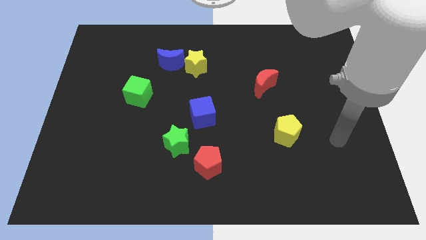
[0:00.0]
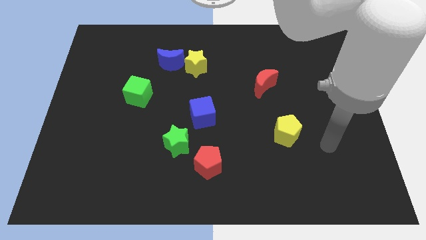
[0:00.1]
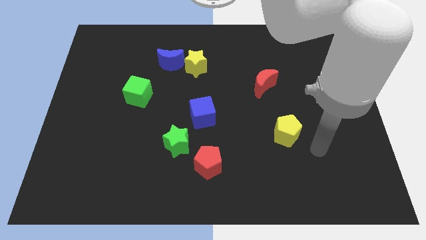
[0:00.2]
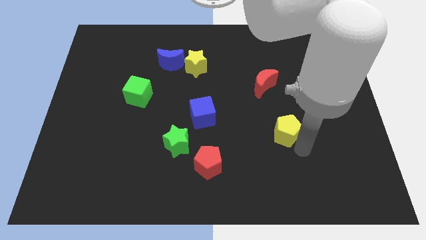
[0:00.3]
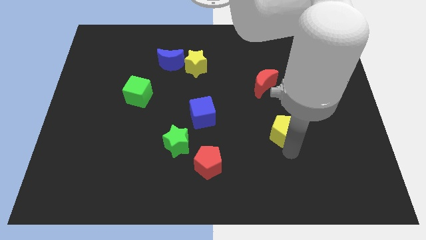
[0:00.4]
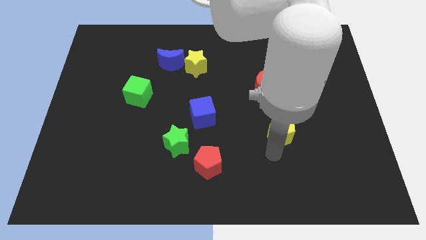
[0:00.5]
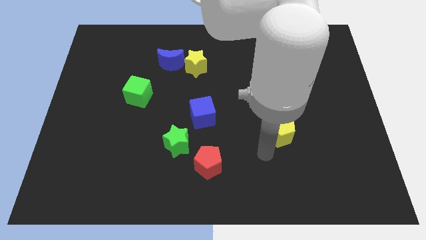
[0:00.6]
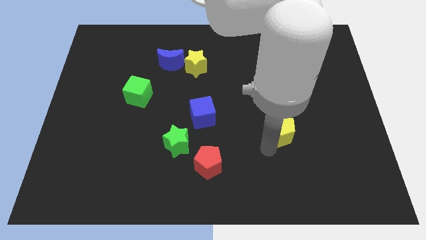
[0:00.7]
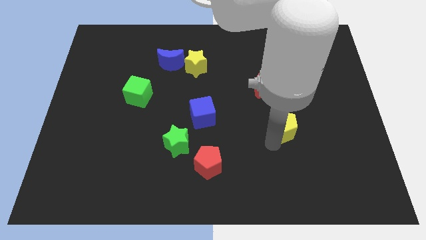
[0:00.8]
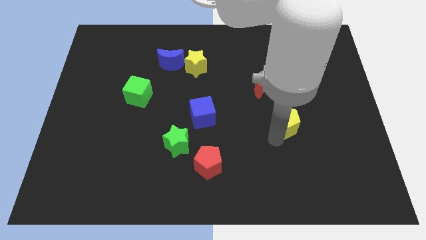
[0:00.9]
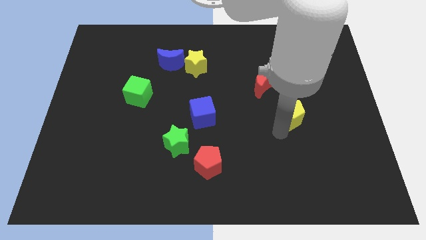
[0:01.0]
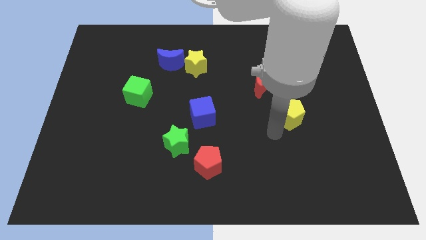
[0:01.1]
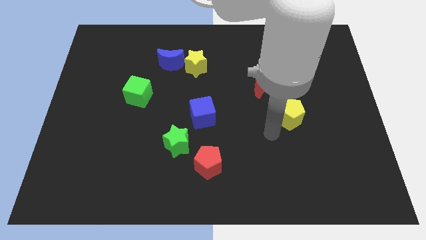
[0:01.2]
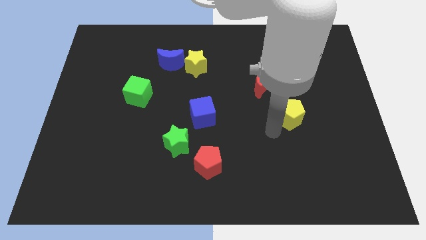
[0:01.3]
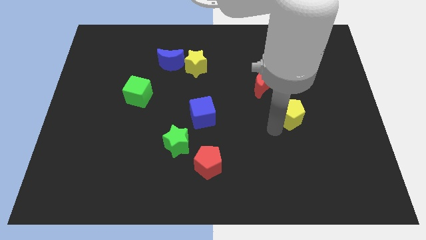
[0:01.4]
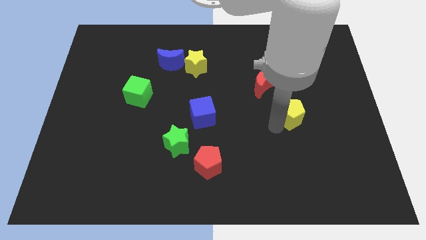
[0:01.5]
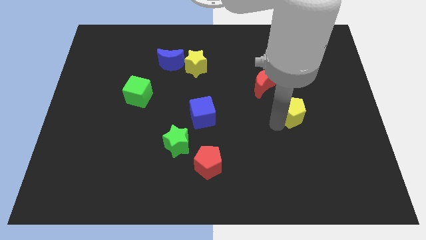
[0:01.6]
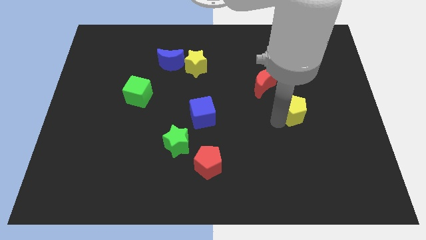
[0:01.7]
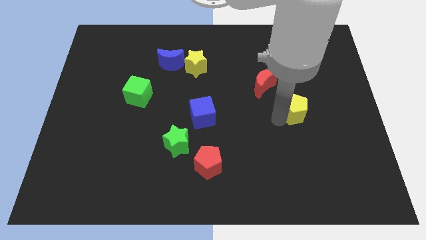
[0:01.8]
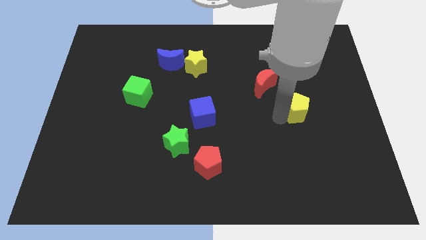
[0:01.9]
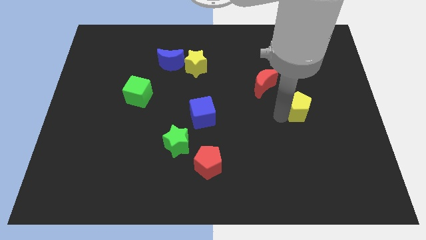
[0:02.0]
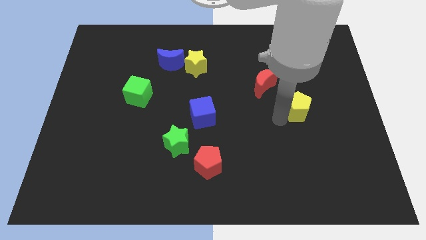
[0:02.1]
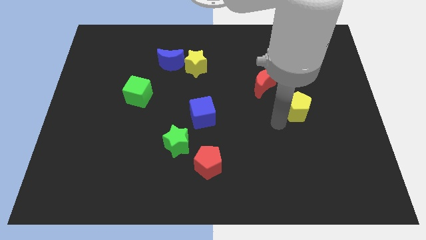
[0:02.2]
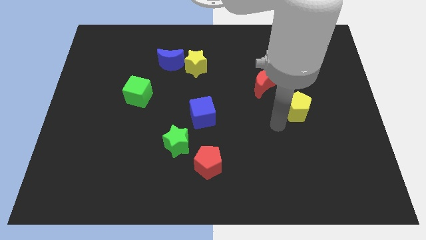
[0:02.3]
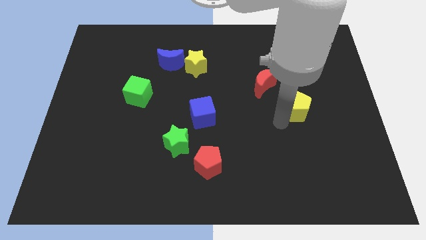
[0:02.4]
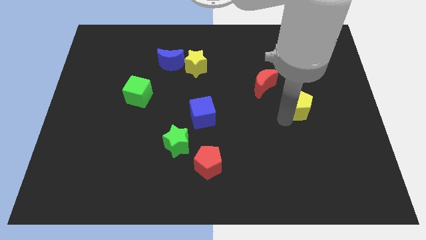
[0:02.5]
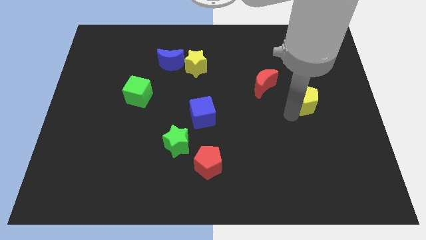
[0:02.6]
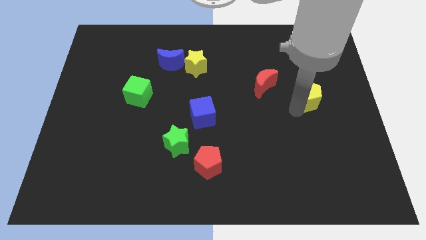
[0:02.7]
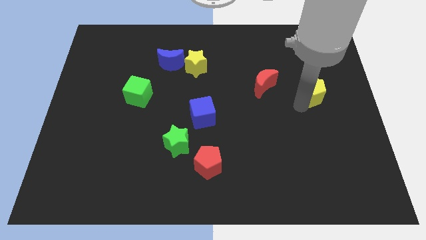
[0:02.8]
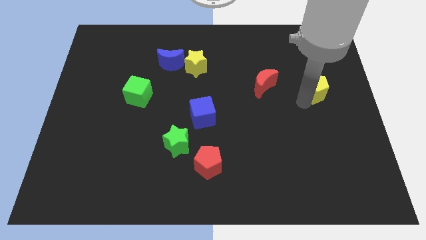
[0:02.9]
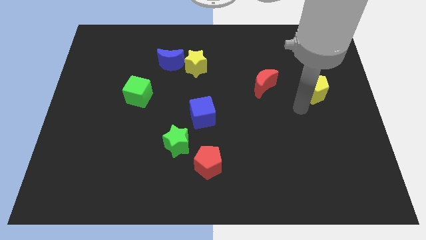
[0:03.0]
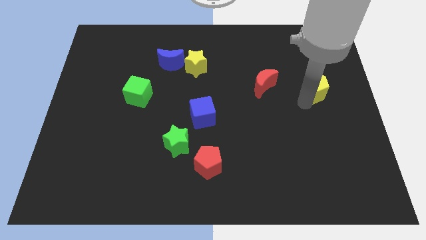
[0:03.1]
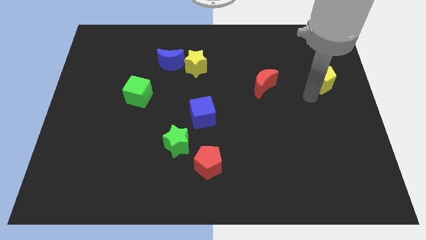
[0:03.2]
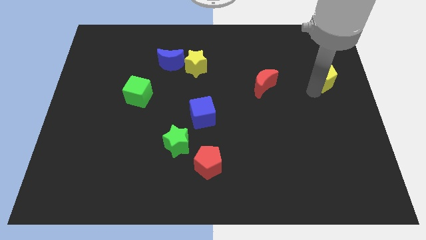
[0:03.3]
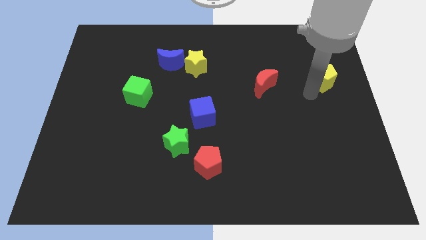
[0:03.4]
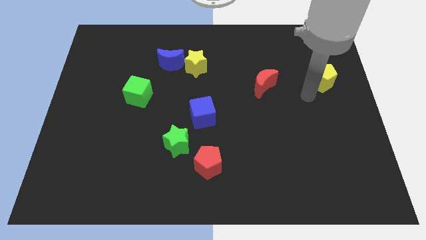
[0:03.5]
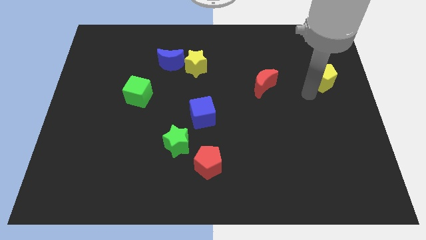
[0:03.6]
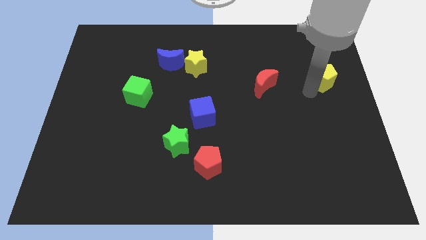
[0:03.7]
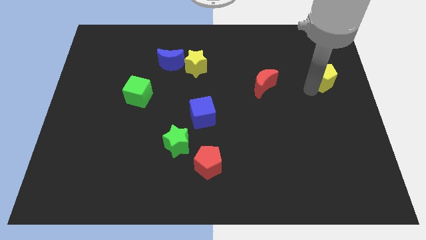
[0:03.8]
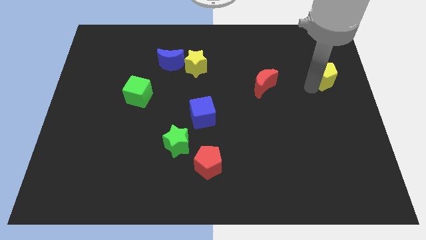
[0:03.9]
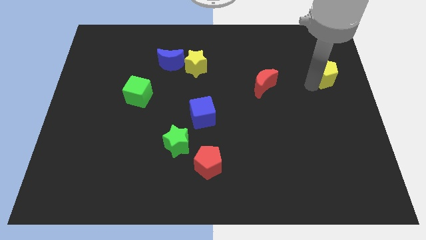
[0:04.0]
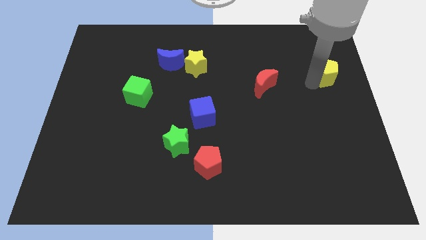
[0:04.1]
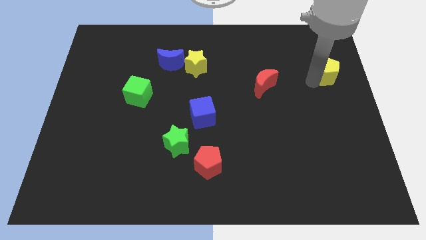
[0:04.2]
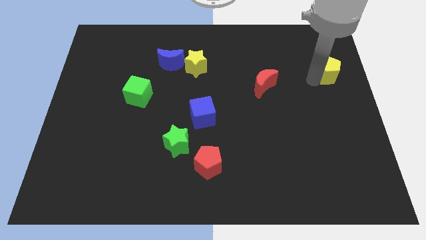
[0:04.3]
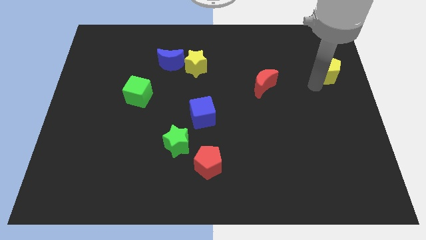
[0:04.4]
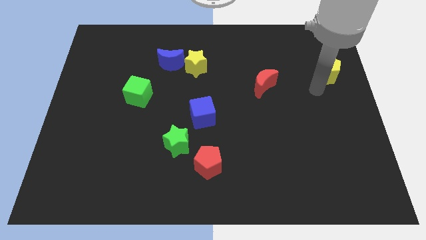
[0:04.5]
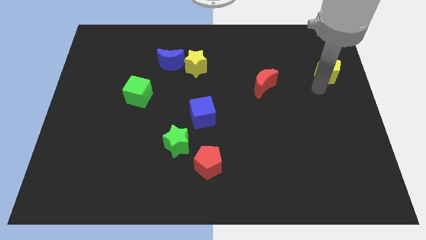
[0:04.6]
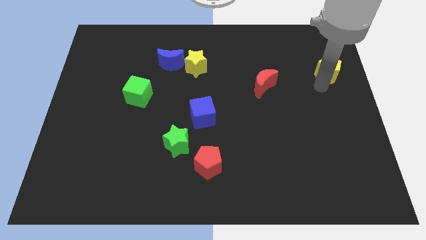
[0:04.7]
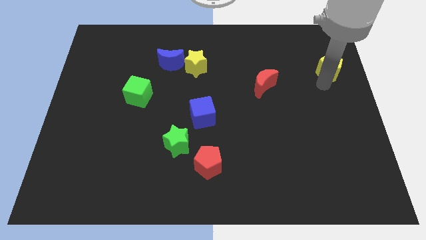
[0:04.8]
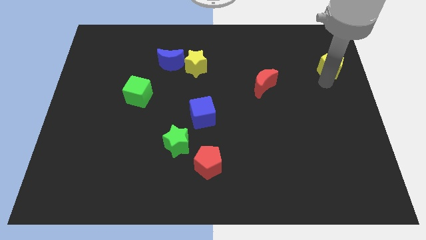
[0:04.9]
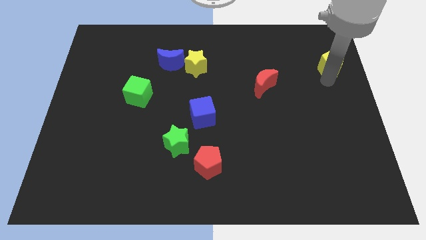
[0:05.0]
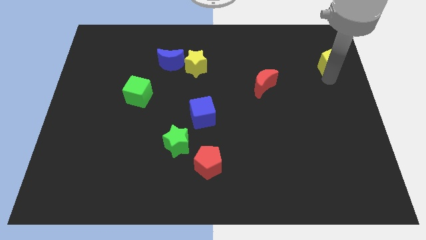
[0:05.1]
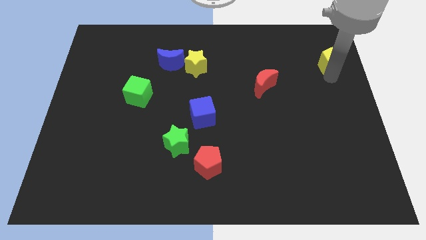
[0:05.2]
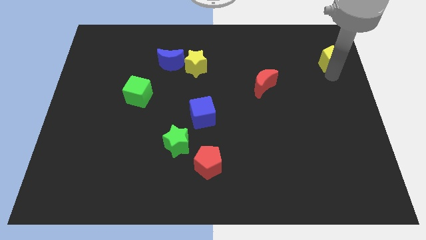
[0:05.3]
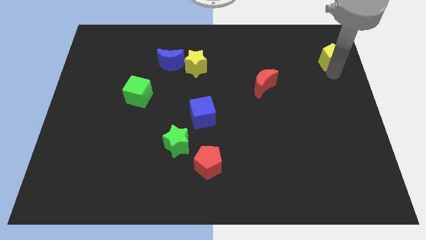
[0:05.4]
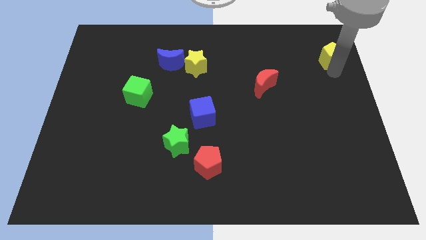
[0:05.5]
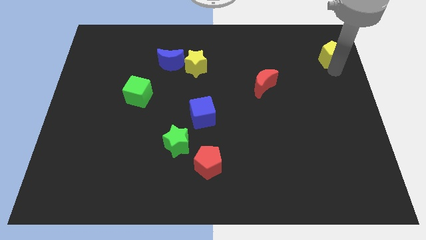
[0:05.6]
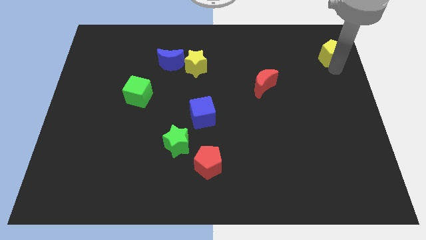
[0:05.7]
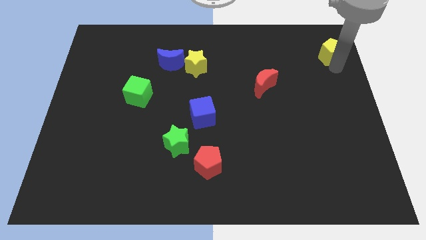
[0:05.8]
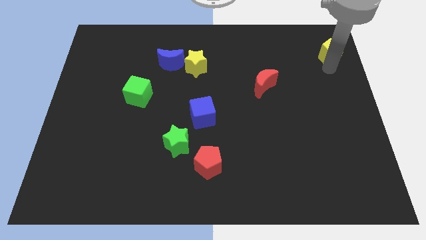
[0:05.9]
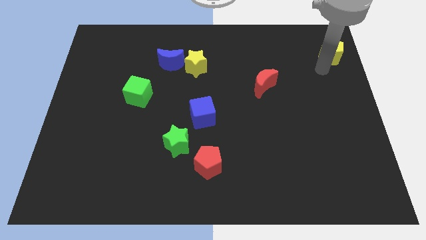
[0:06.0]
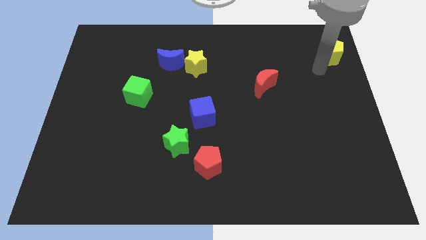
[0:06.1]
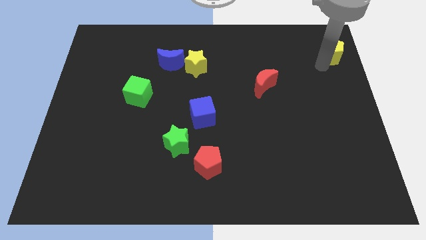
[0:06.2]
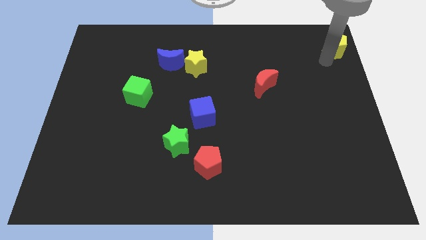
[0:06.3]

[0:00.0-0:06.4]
slide the yellow pentagon to the top right corner
